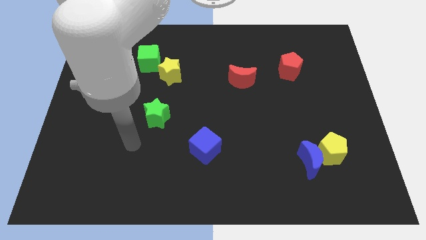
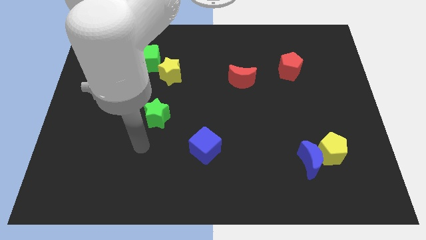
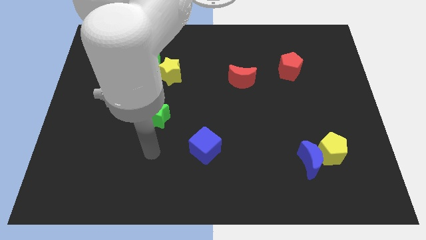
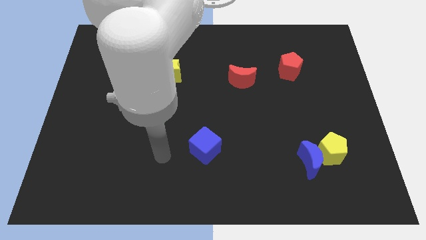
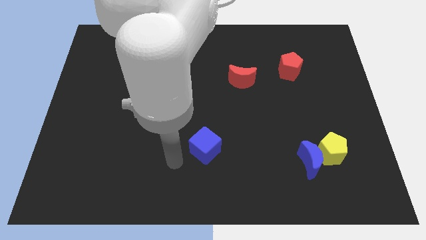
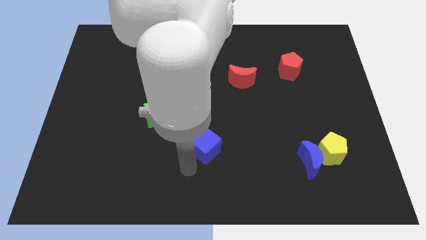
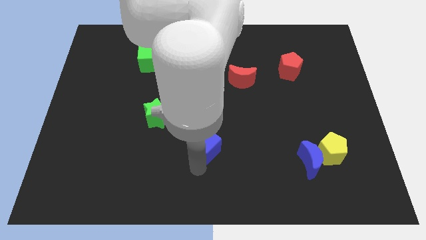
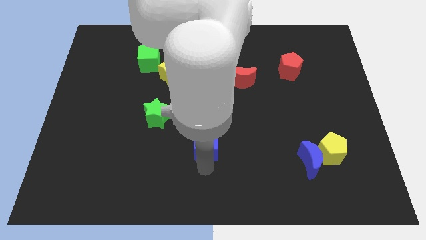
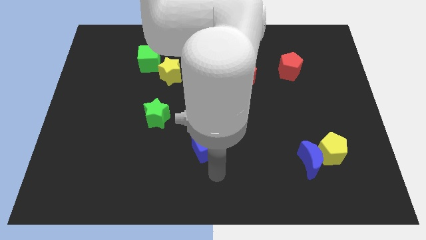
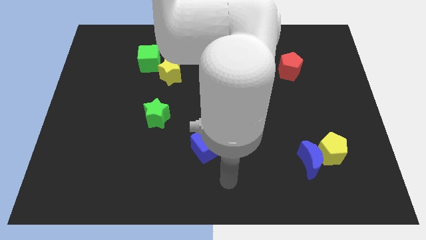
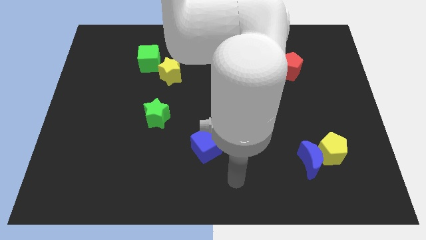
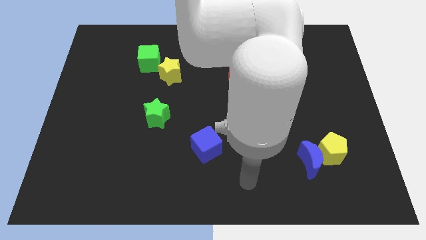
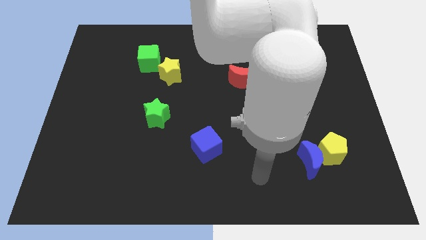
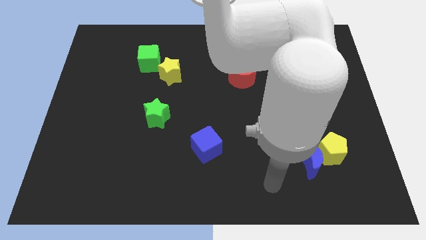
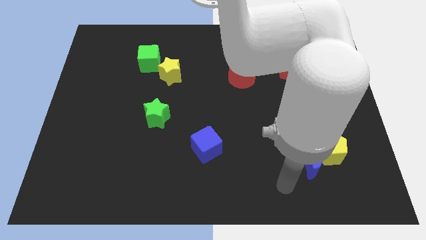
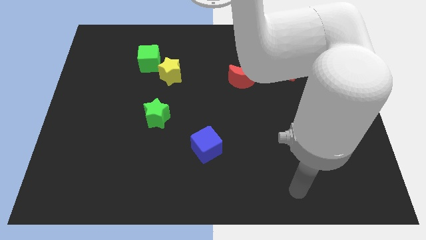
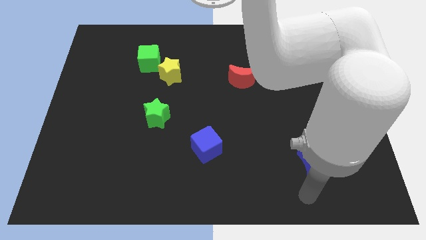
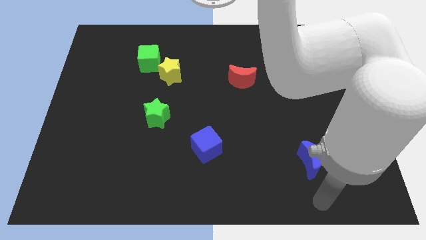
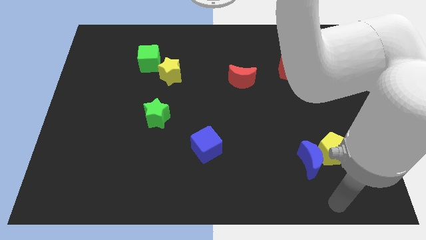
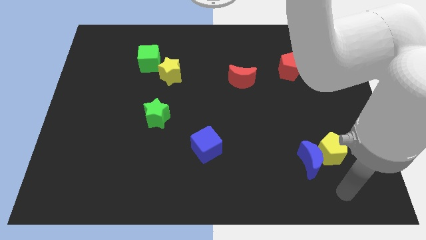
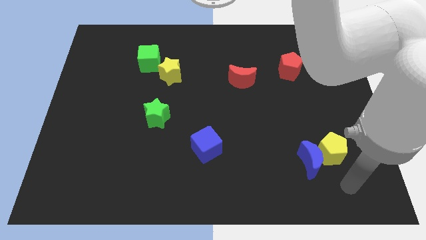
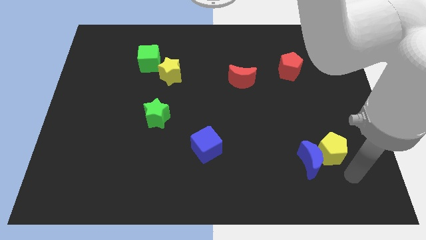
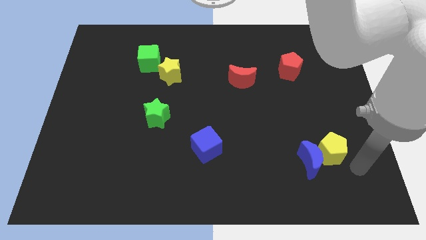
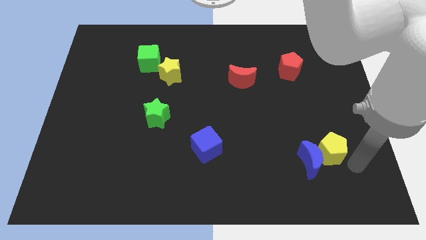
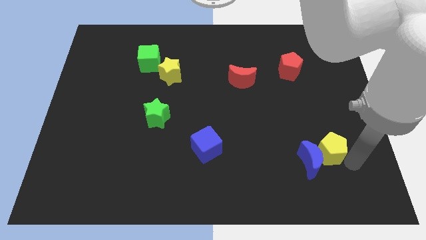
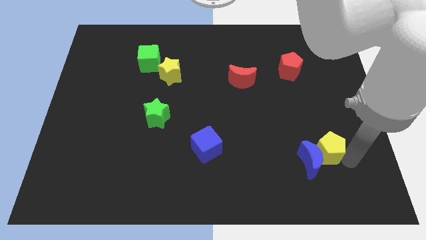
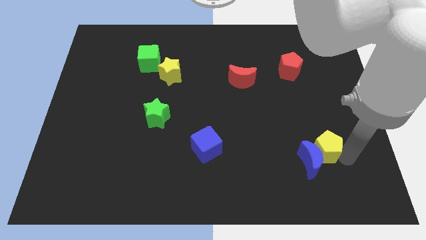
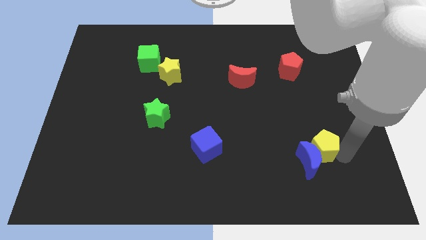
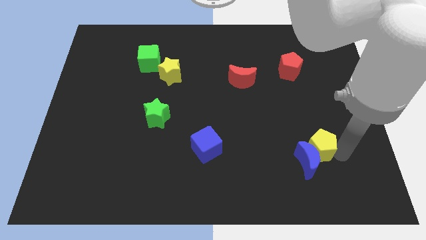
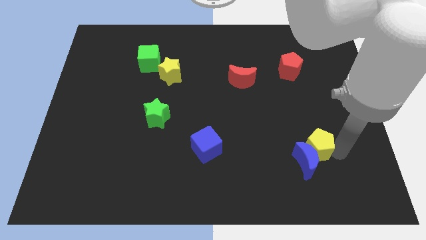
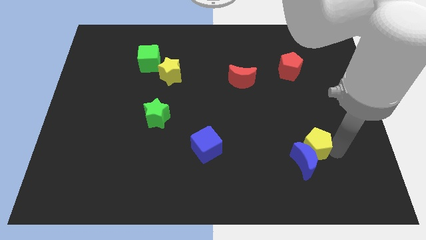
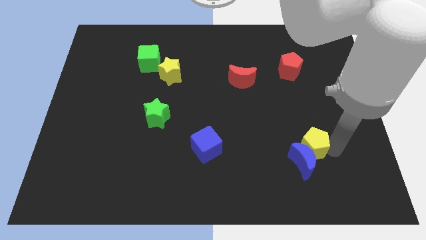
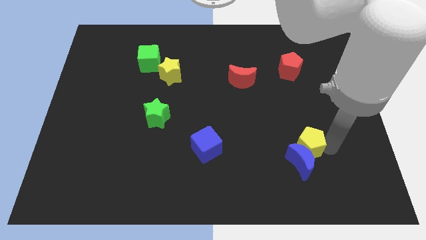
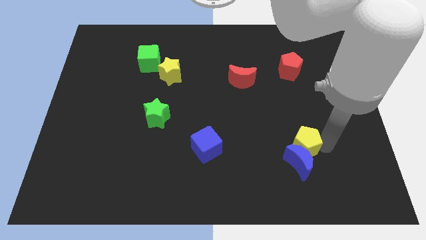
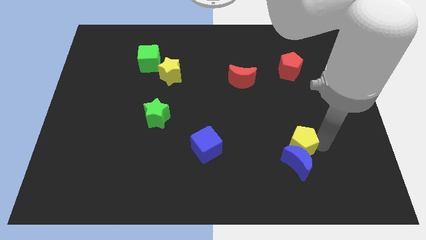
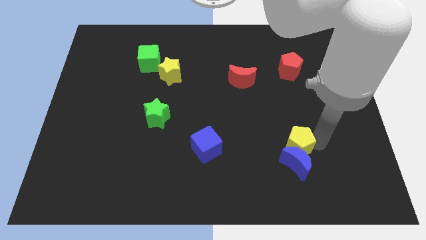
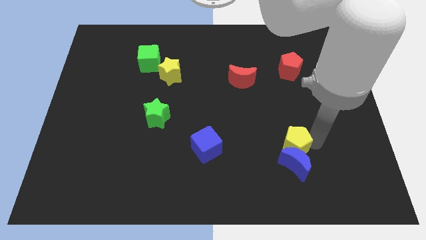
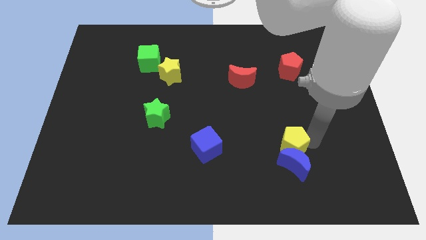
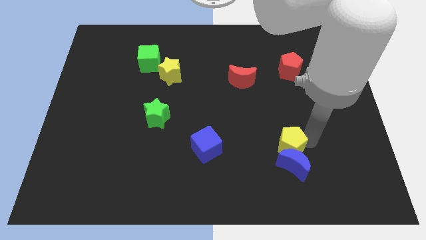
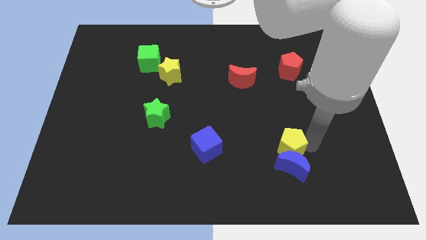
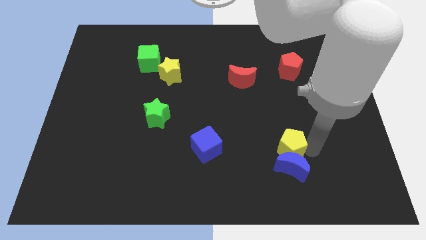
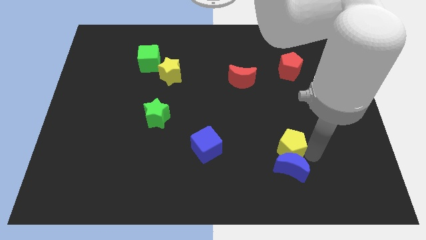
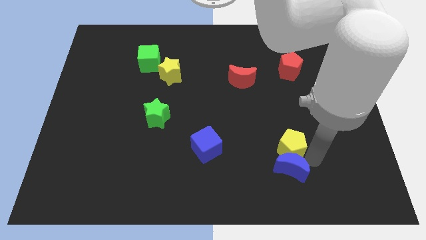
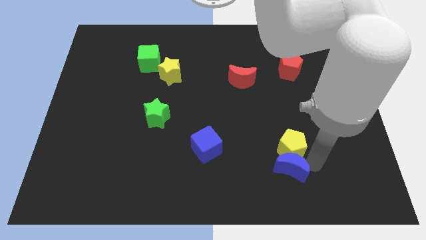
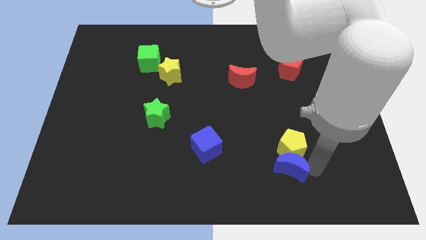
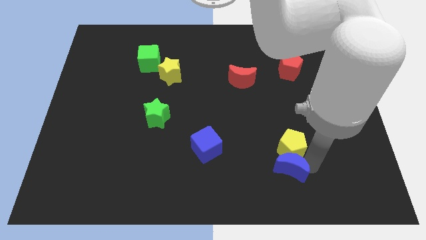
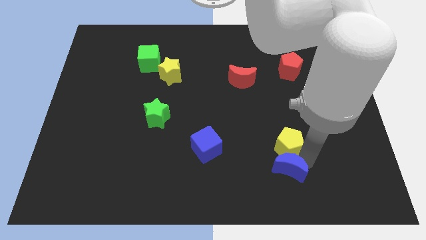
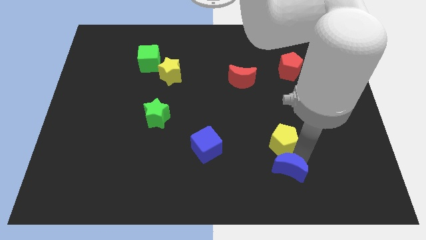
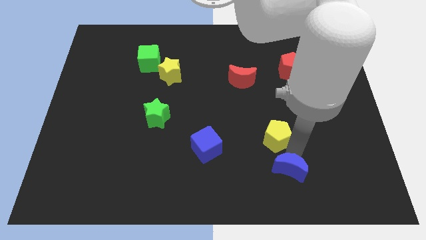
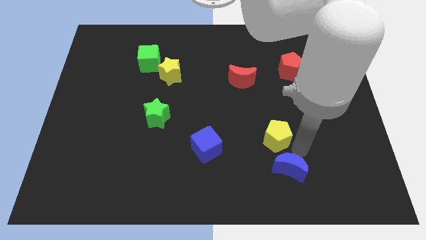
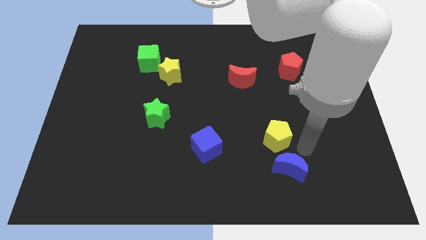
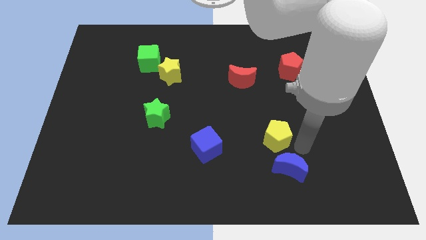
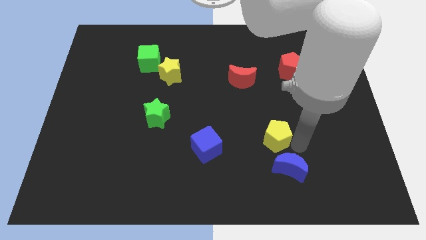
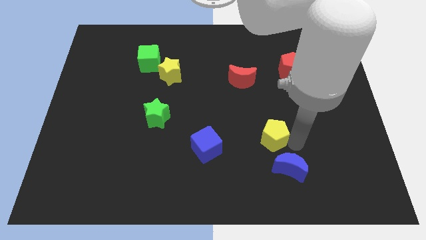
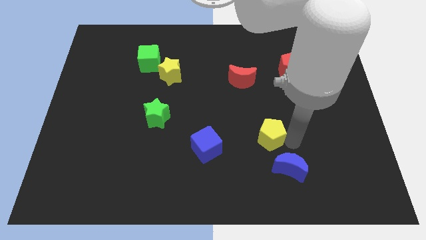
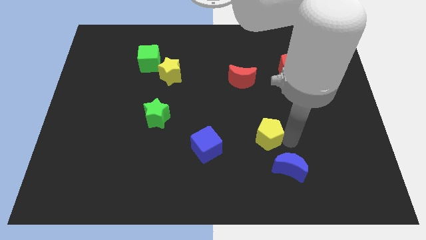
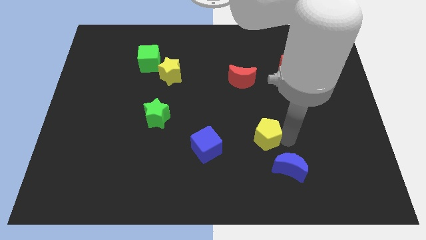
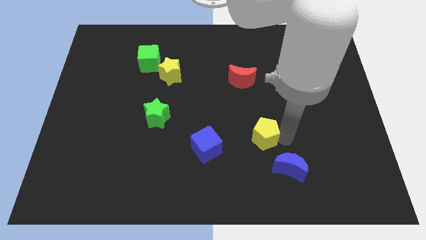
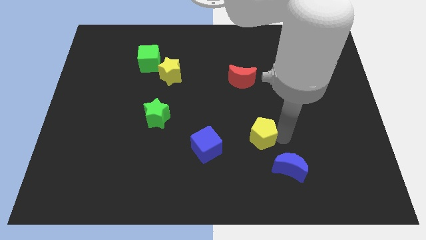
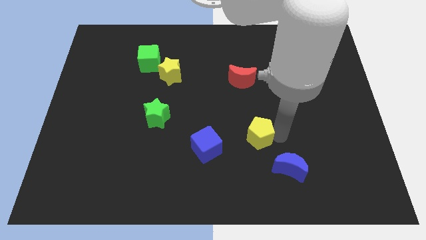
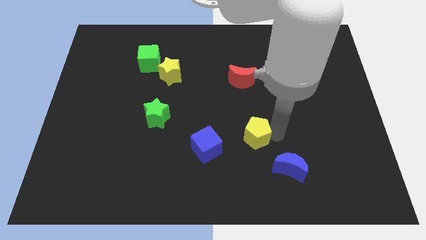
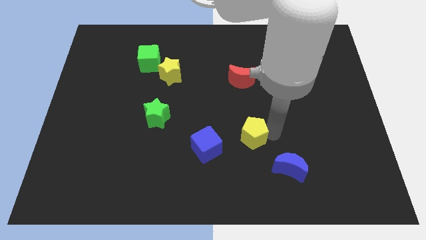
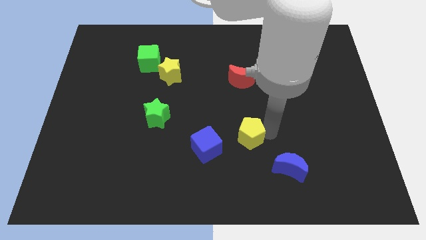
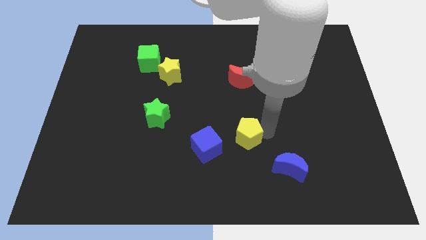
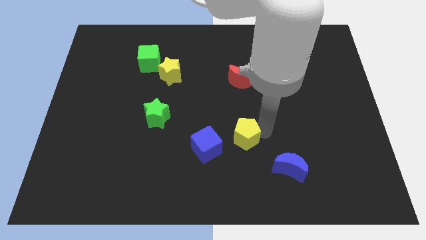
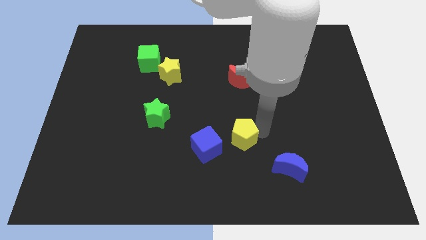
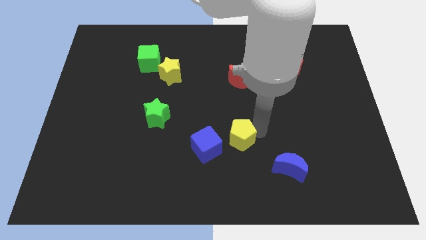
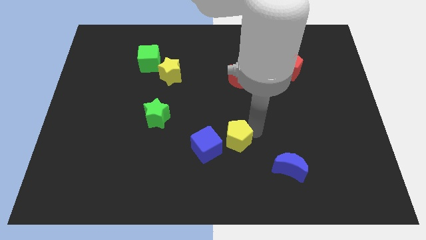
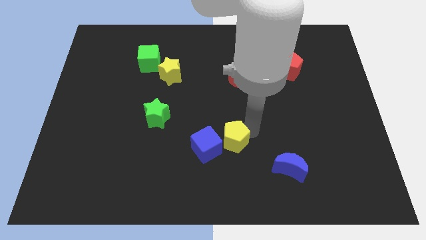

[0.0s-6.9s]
move the yellow pentagon to the left

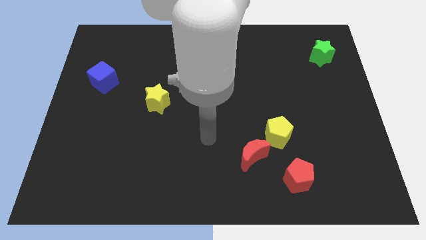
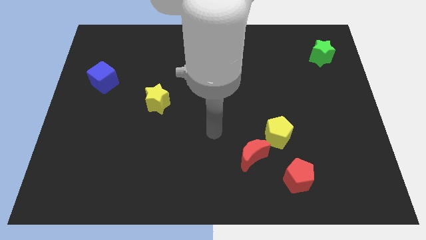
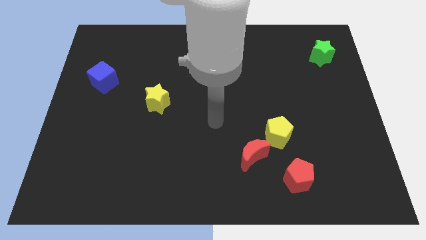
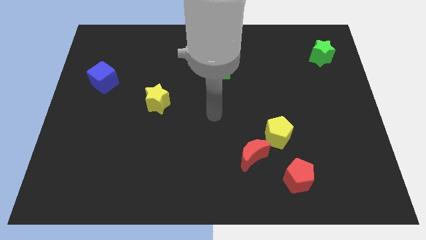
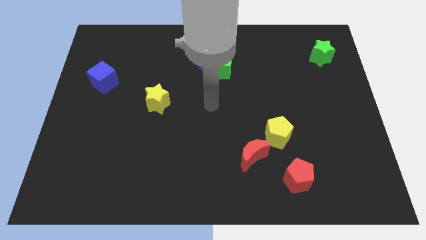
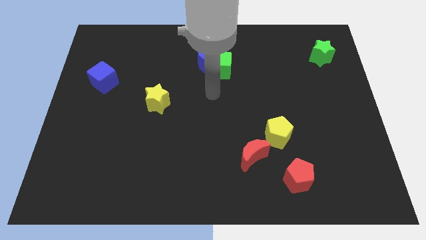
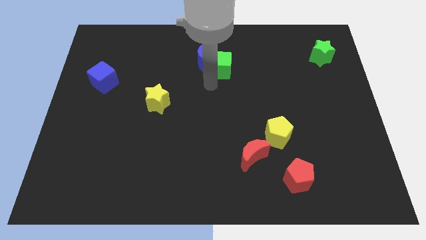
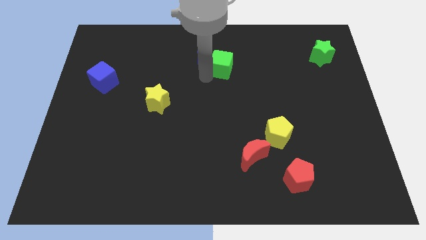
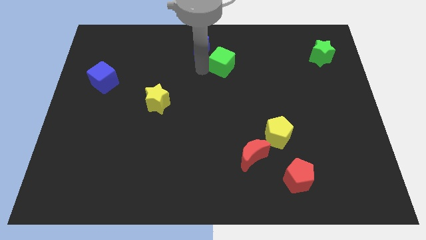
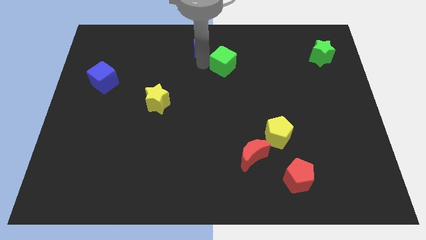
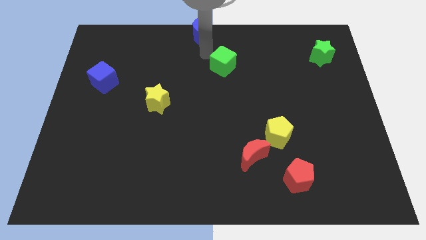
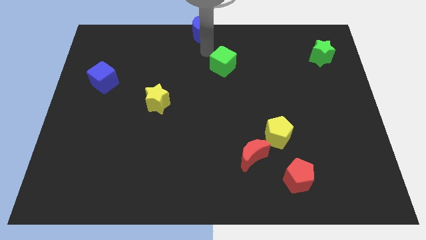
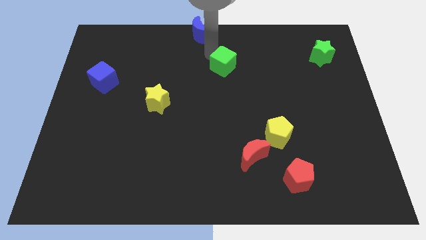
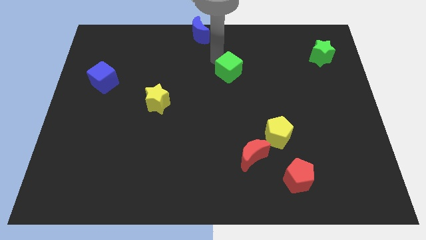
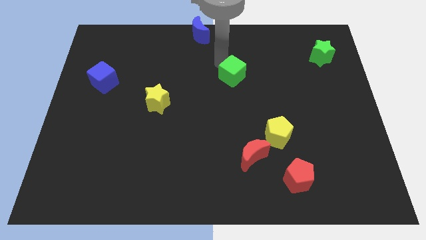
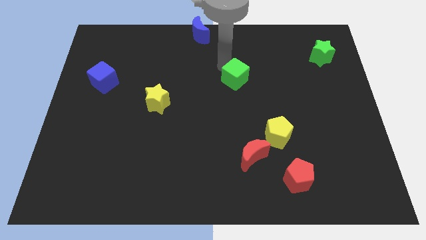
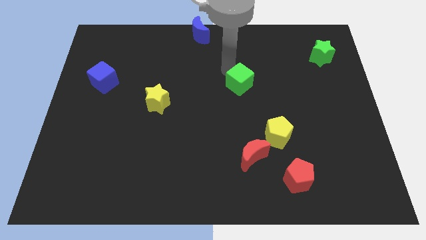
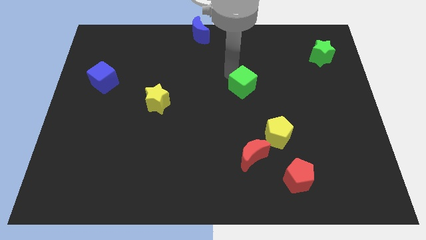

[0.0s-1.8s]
move the green cube diagonally downwards and to the right a little bit
